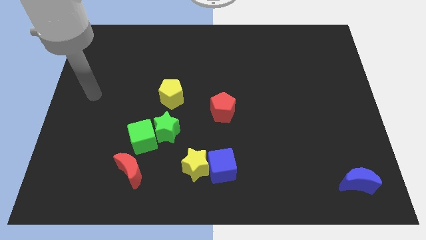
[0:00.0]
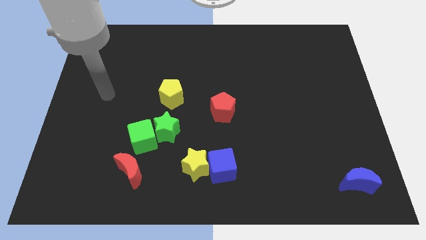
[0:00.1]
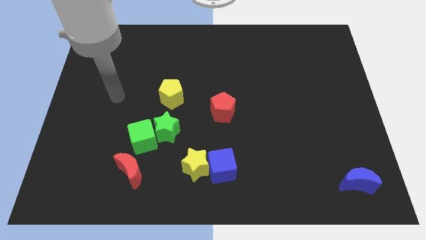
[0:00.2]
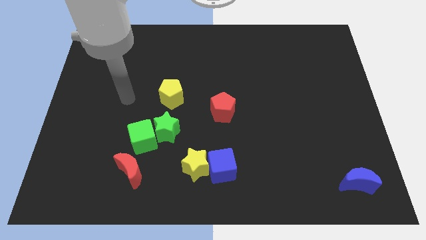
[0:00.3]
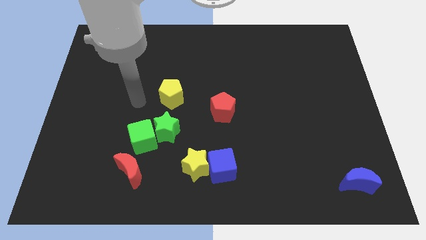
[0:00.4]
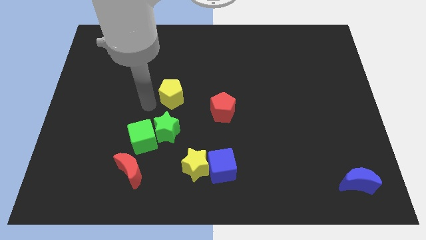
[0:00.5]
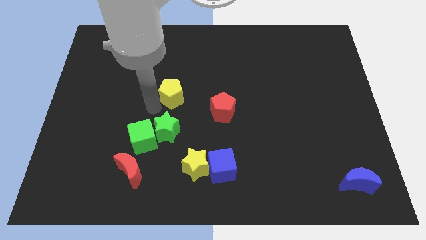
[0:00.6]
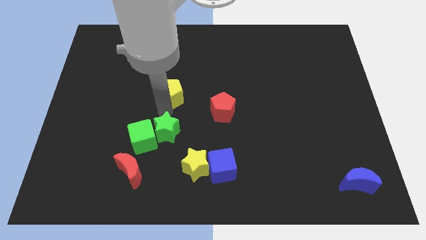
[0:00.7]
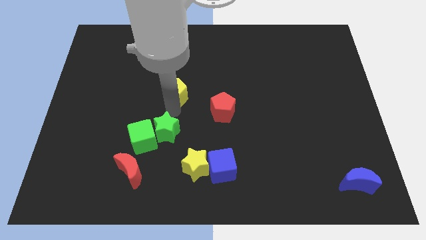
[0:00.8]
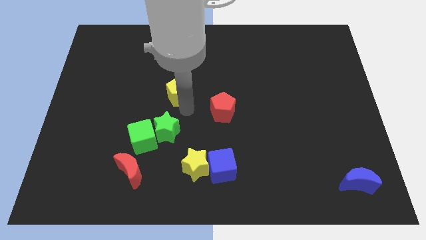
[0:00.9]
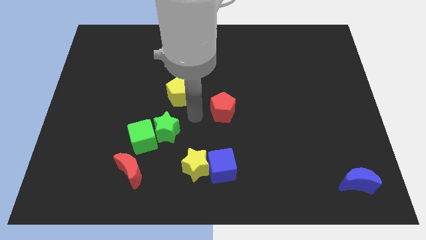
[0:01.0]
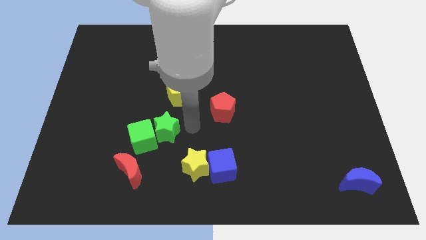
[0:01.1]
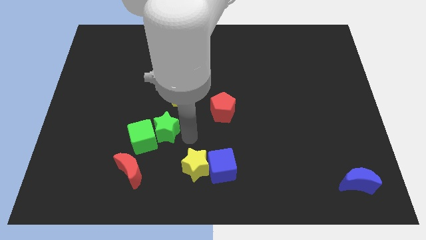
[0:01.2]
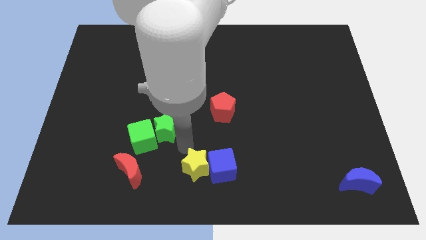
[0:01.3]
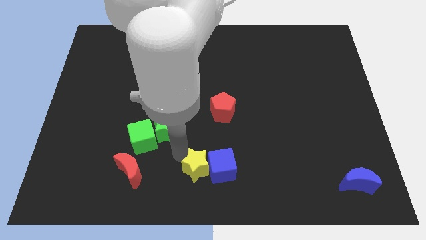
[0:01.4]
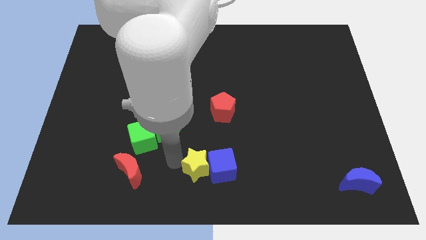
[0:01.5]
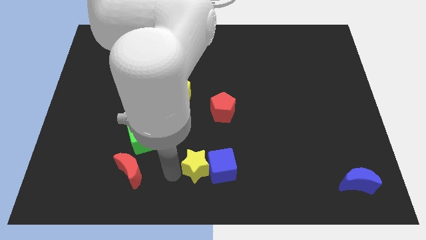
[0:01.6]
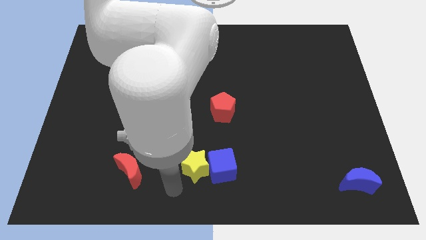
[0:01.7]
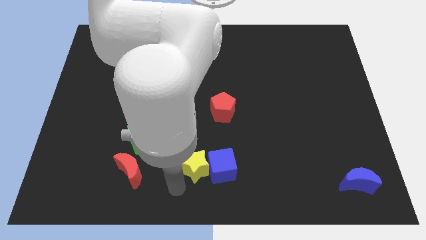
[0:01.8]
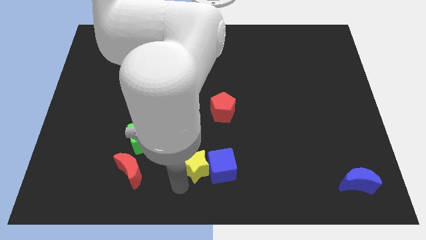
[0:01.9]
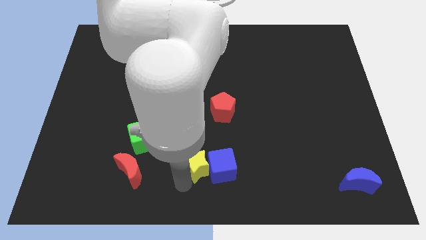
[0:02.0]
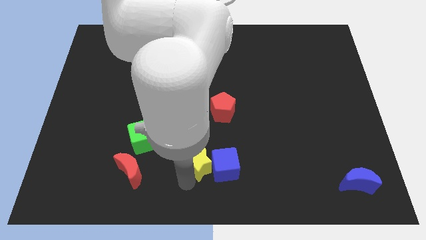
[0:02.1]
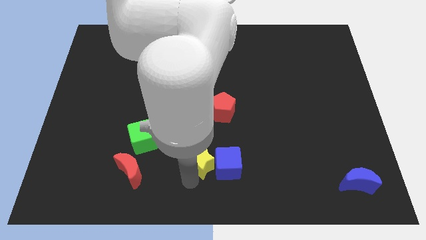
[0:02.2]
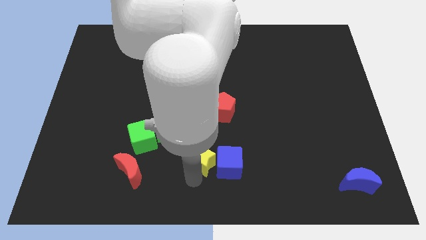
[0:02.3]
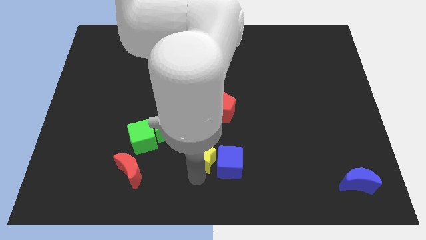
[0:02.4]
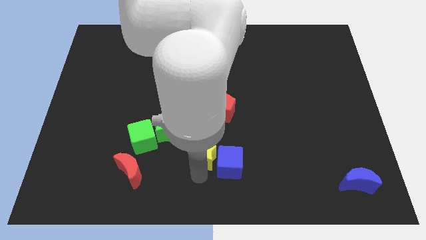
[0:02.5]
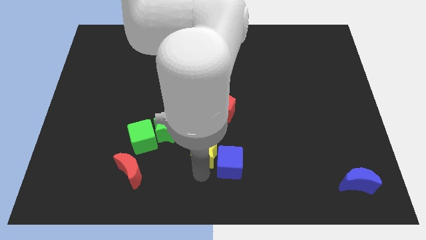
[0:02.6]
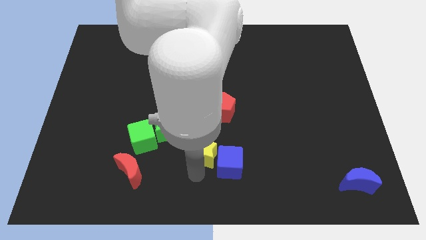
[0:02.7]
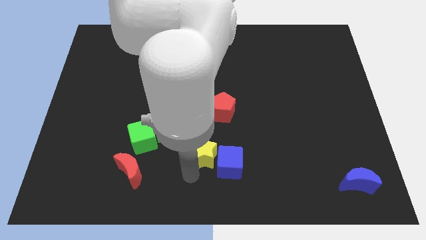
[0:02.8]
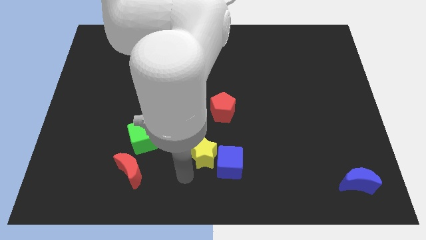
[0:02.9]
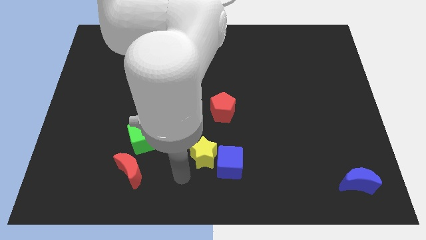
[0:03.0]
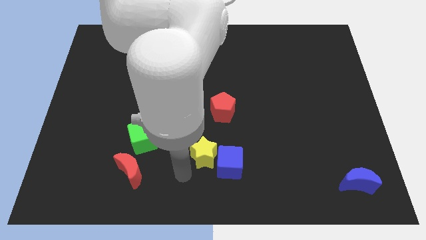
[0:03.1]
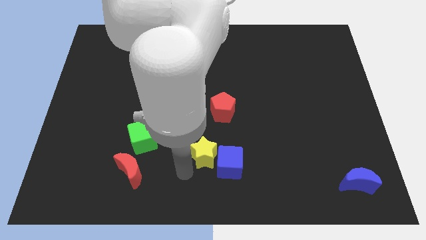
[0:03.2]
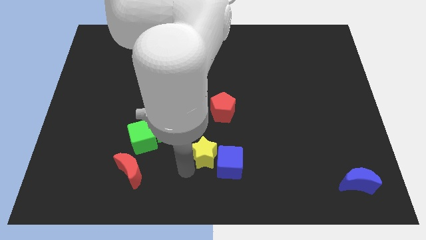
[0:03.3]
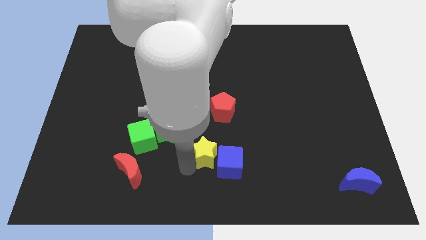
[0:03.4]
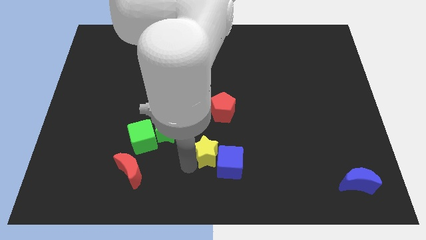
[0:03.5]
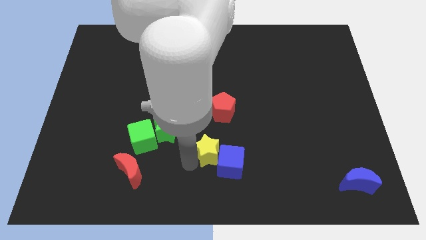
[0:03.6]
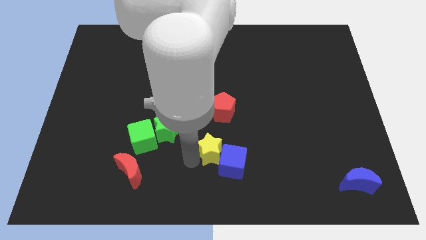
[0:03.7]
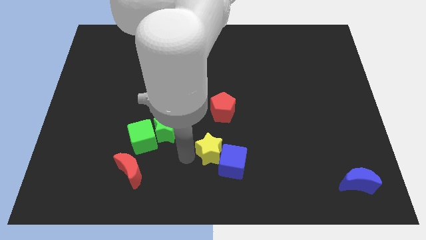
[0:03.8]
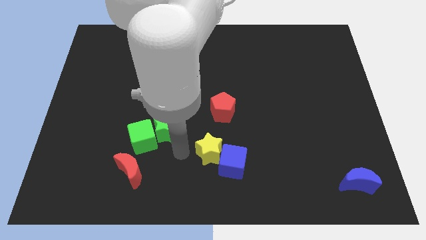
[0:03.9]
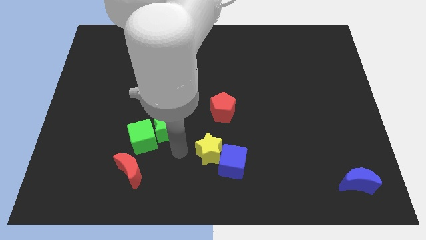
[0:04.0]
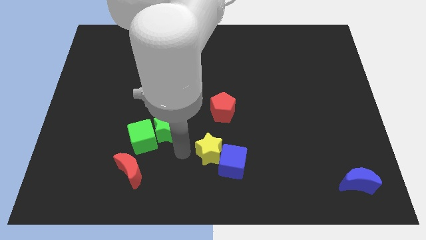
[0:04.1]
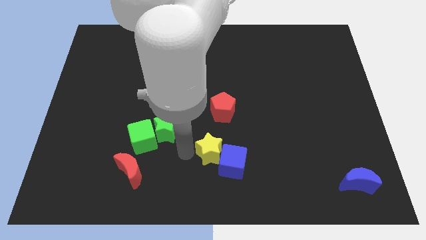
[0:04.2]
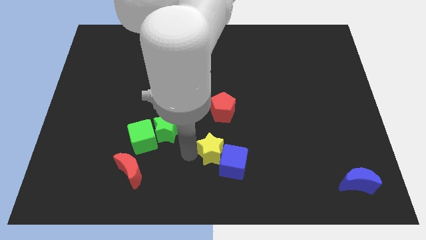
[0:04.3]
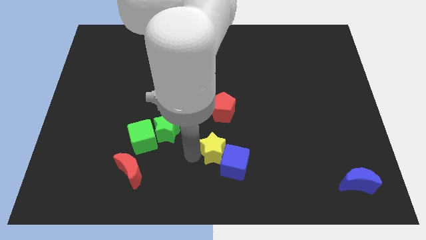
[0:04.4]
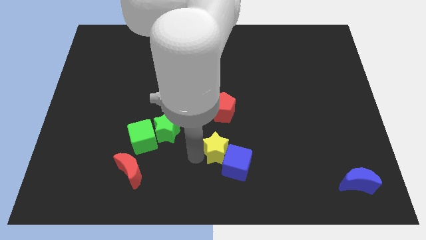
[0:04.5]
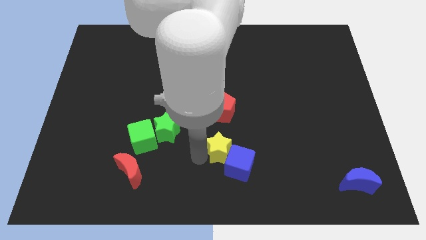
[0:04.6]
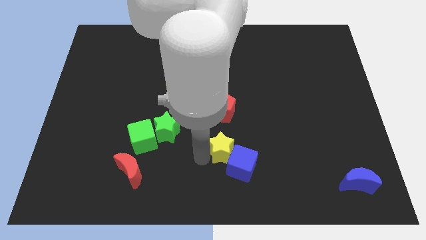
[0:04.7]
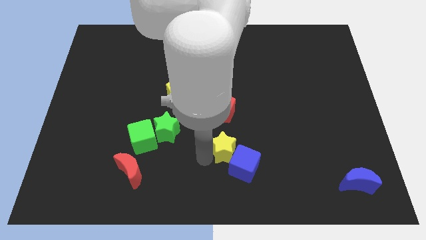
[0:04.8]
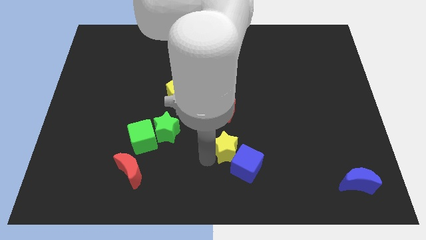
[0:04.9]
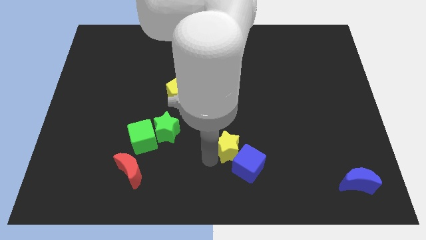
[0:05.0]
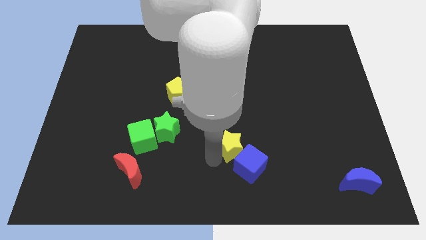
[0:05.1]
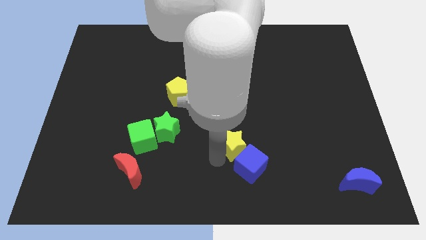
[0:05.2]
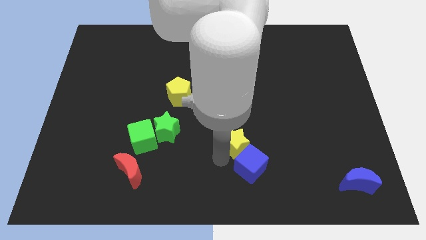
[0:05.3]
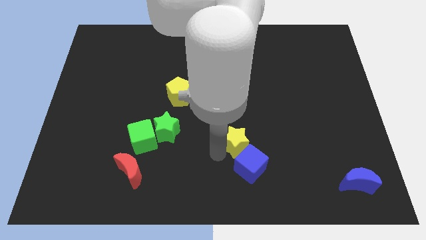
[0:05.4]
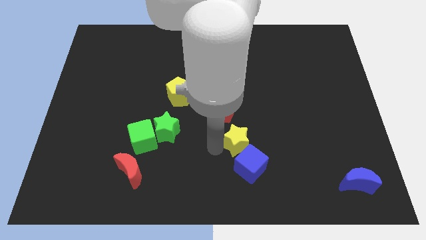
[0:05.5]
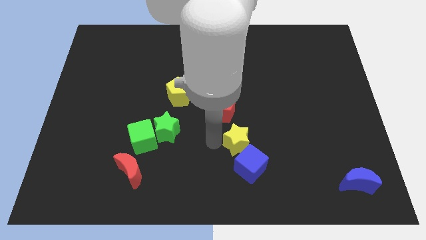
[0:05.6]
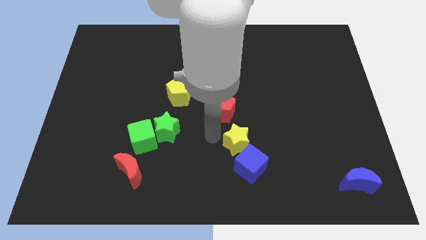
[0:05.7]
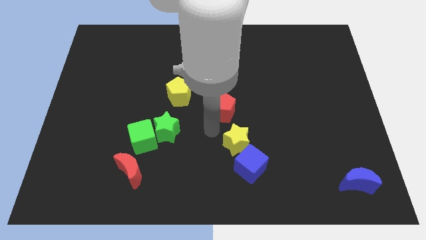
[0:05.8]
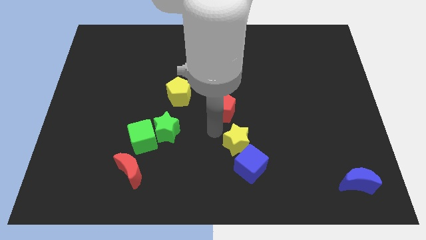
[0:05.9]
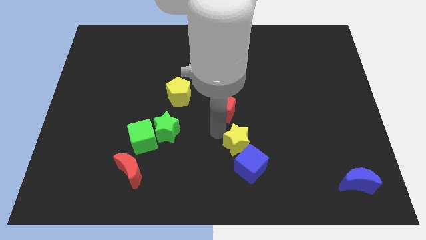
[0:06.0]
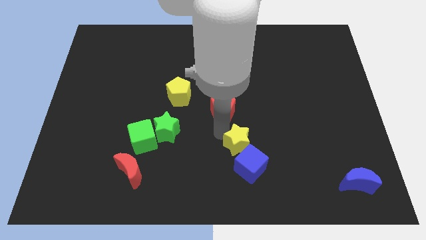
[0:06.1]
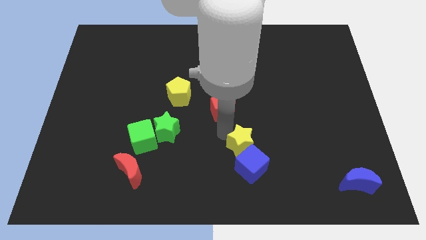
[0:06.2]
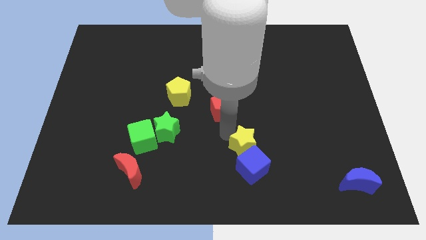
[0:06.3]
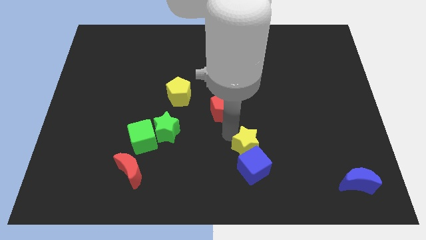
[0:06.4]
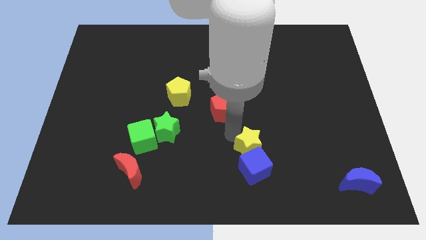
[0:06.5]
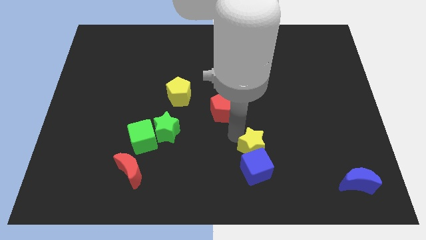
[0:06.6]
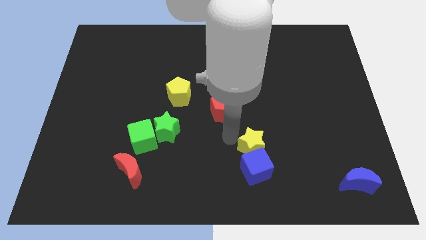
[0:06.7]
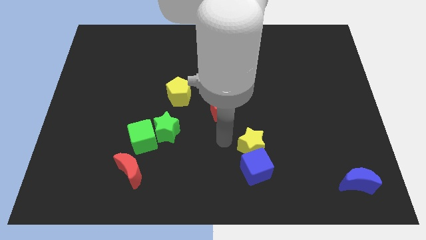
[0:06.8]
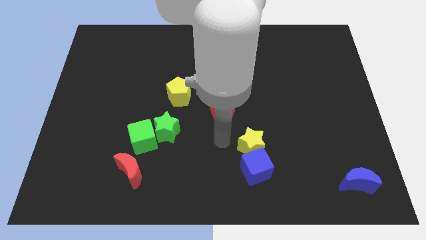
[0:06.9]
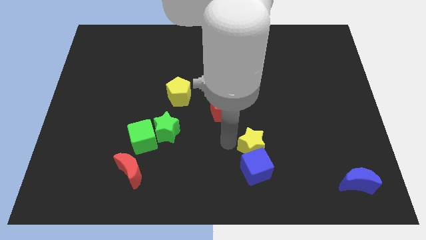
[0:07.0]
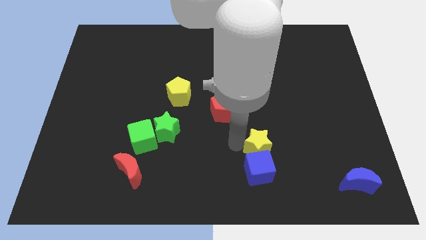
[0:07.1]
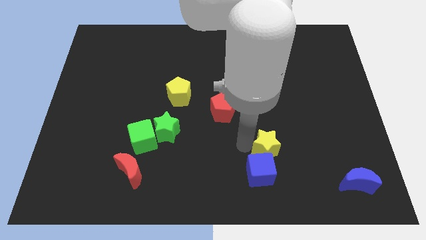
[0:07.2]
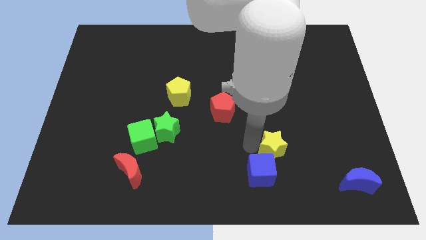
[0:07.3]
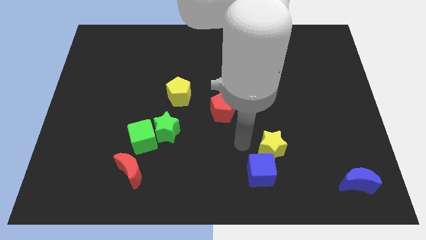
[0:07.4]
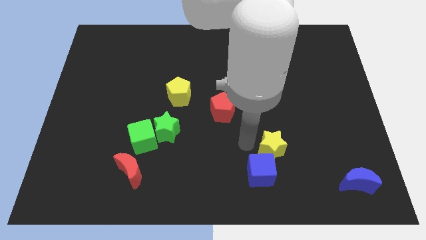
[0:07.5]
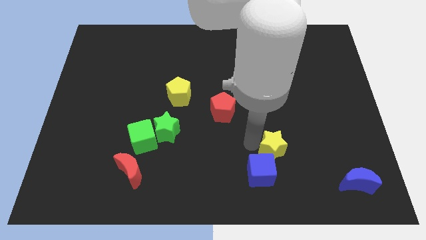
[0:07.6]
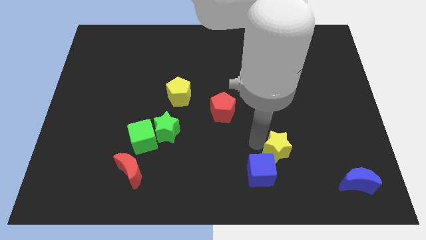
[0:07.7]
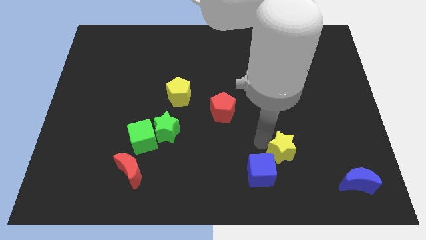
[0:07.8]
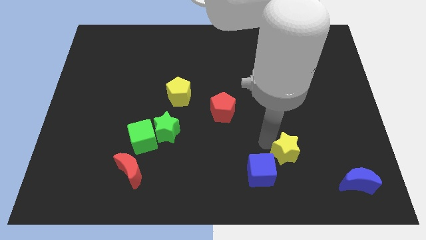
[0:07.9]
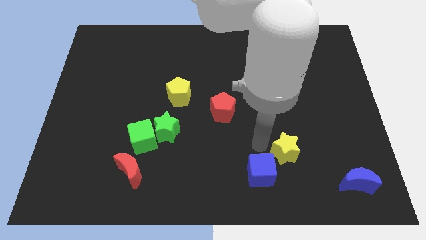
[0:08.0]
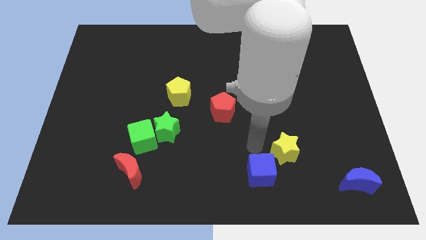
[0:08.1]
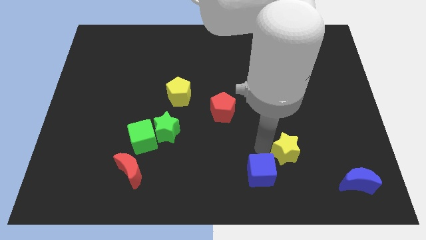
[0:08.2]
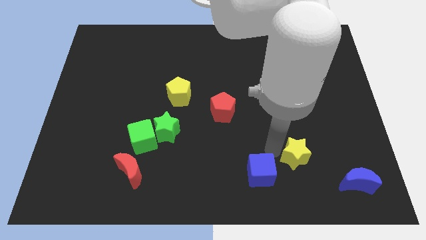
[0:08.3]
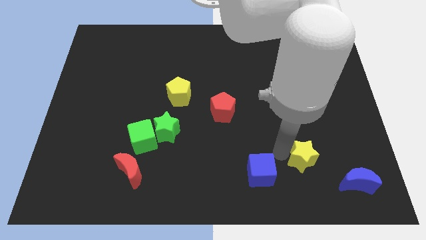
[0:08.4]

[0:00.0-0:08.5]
move the yellow star to the top left side of the blue moon
